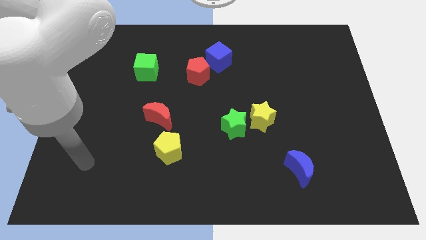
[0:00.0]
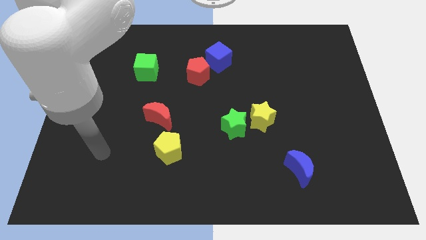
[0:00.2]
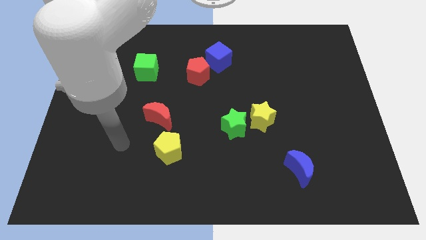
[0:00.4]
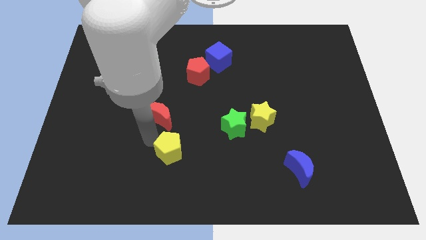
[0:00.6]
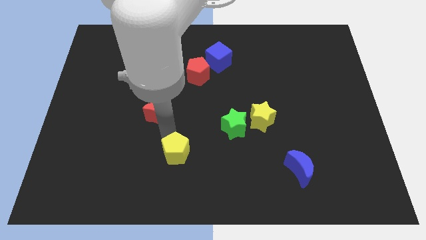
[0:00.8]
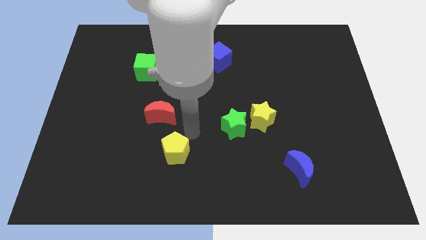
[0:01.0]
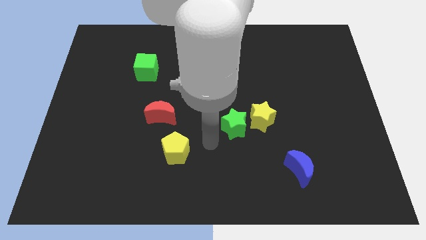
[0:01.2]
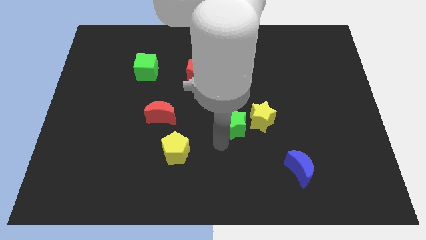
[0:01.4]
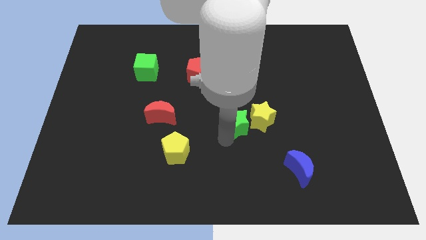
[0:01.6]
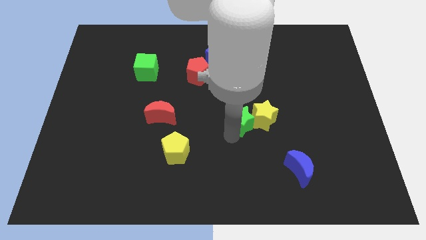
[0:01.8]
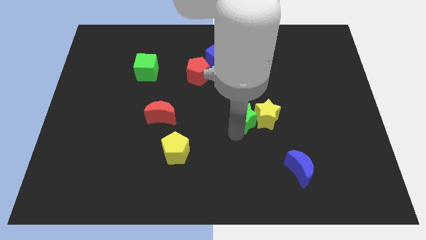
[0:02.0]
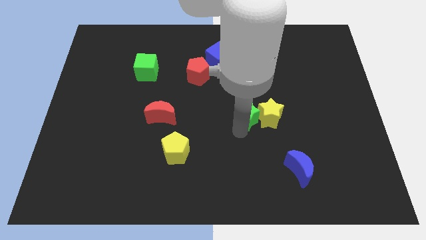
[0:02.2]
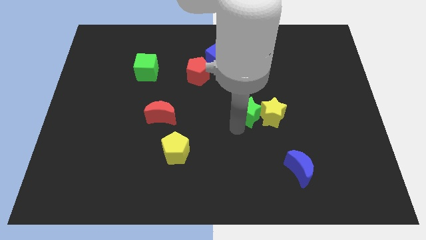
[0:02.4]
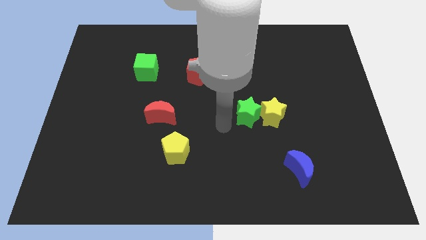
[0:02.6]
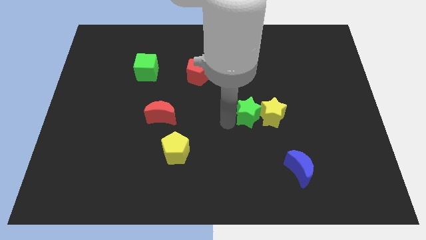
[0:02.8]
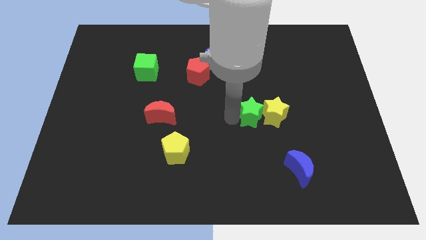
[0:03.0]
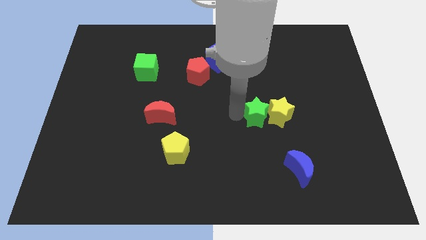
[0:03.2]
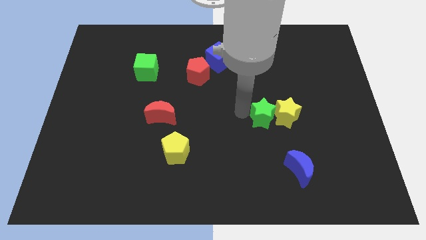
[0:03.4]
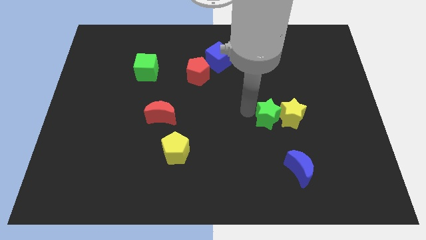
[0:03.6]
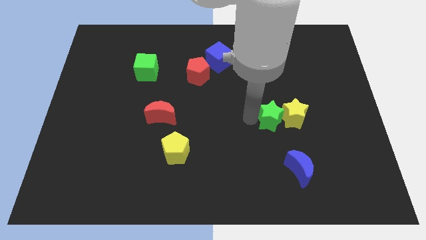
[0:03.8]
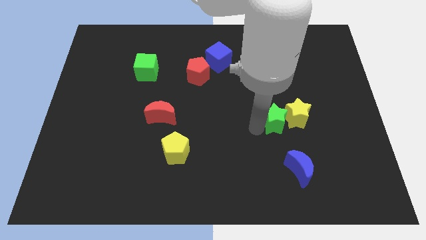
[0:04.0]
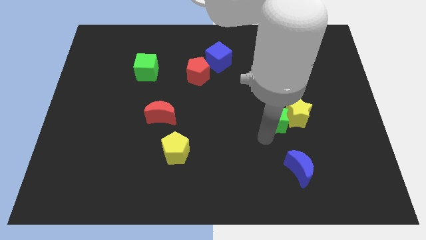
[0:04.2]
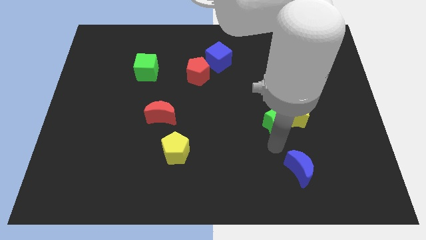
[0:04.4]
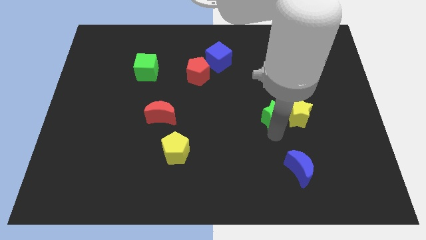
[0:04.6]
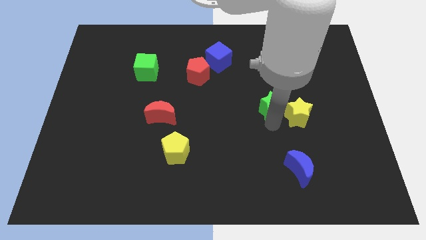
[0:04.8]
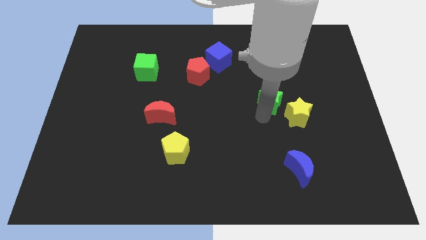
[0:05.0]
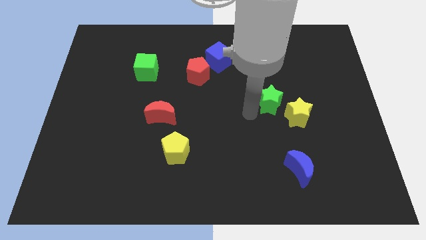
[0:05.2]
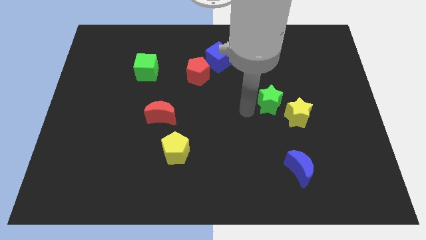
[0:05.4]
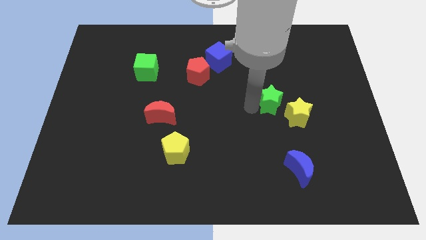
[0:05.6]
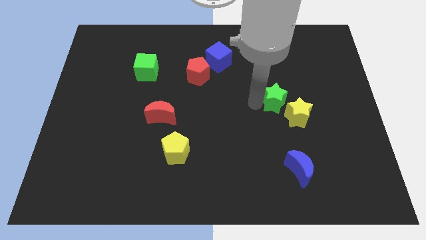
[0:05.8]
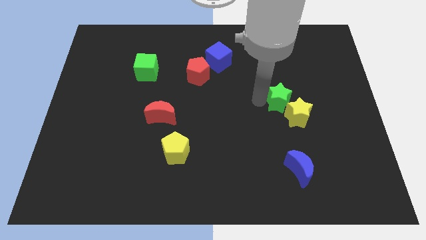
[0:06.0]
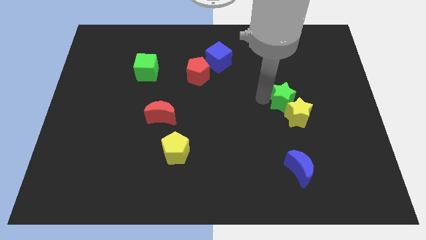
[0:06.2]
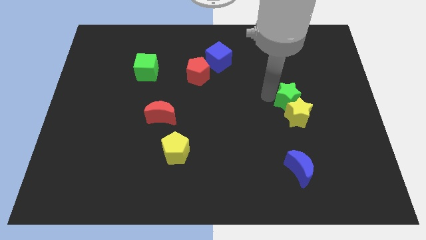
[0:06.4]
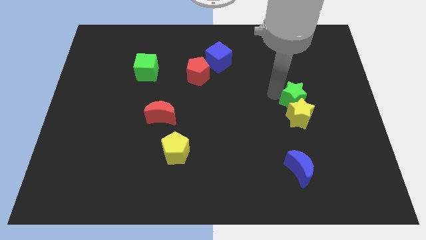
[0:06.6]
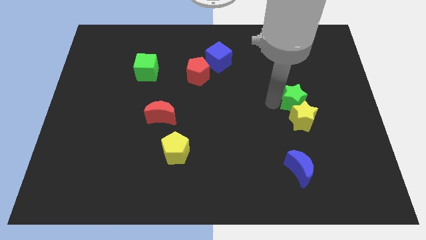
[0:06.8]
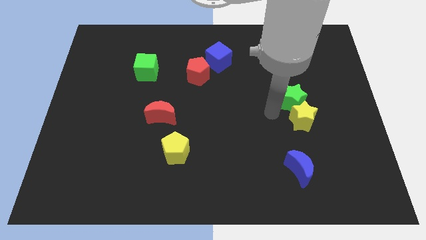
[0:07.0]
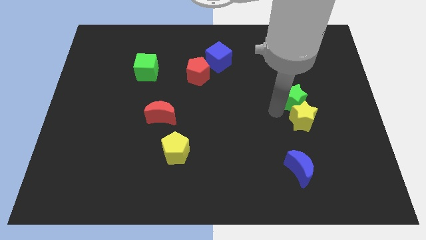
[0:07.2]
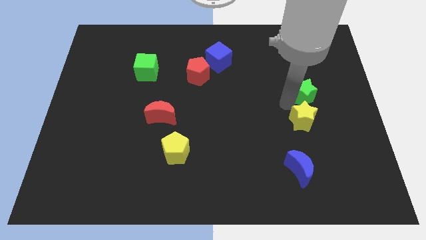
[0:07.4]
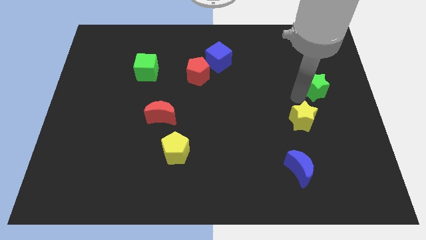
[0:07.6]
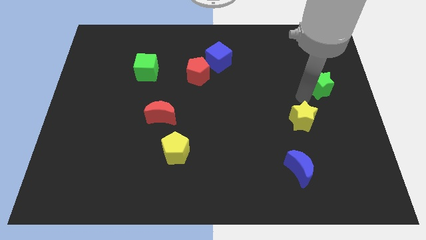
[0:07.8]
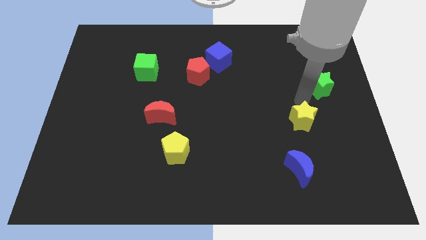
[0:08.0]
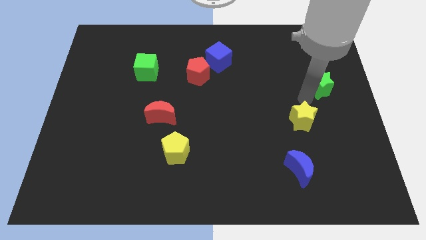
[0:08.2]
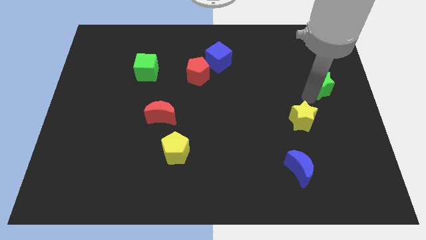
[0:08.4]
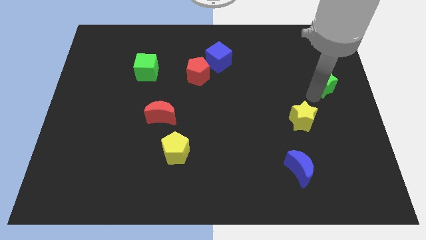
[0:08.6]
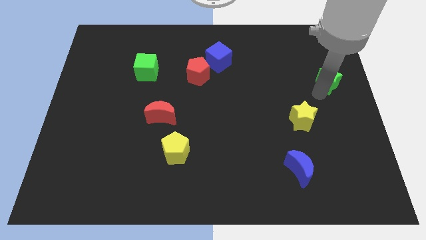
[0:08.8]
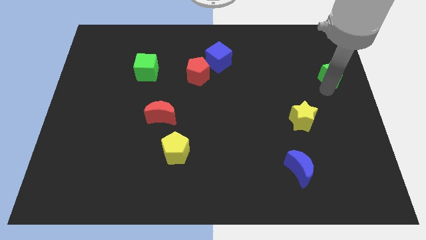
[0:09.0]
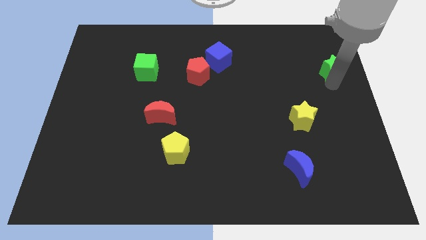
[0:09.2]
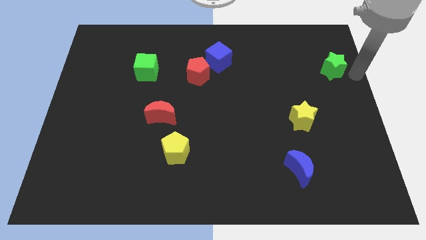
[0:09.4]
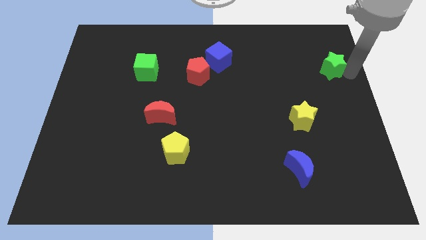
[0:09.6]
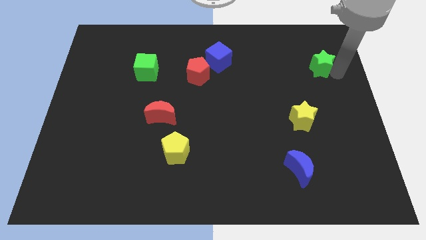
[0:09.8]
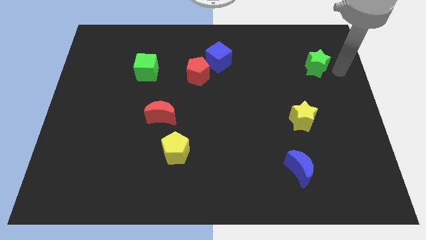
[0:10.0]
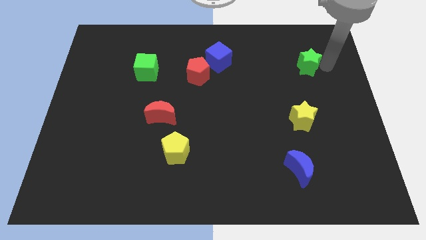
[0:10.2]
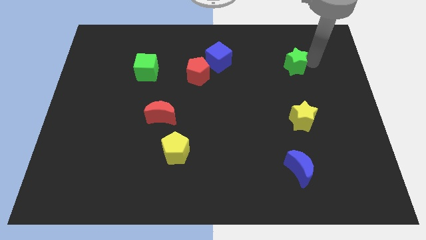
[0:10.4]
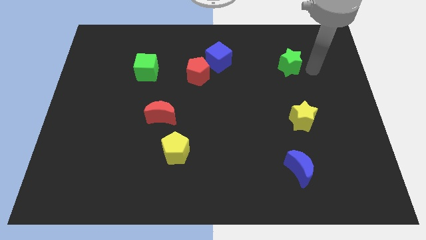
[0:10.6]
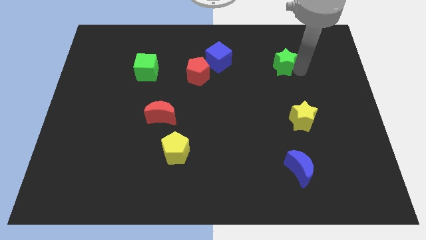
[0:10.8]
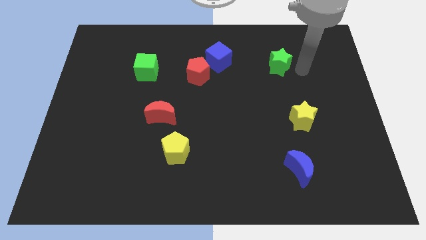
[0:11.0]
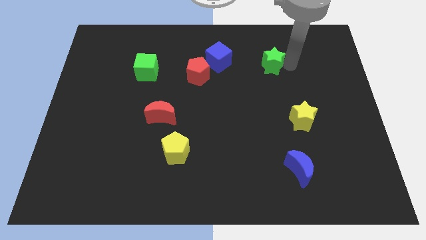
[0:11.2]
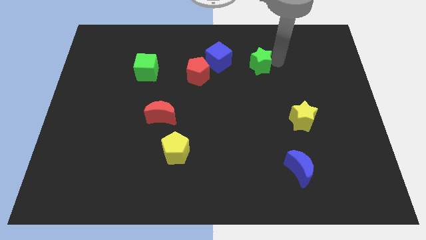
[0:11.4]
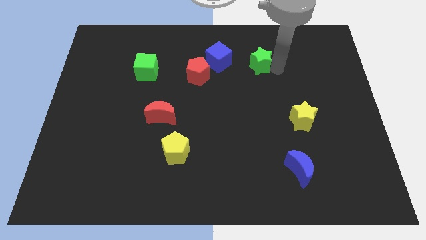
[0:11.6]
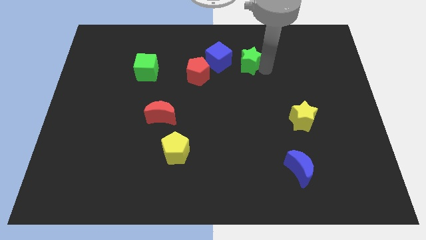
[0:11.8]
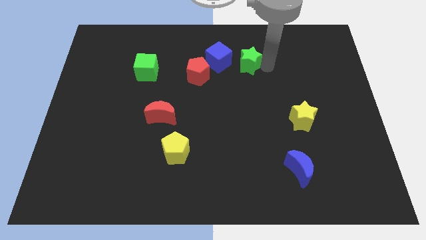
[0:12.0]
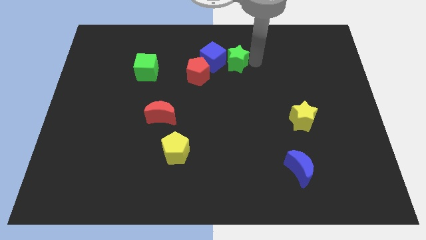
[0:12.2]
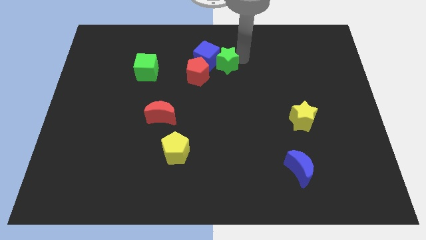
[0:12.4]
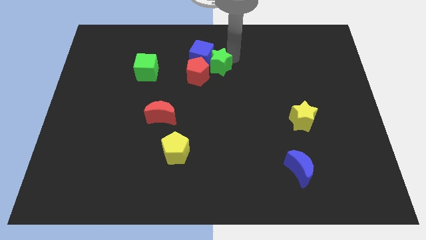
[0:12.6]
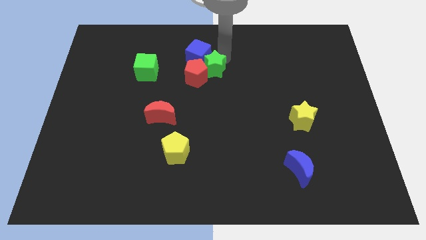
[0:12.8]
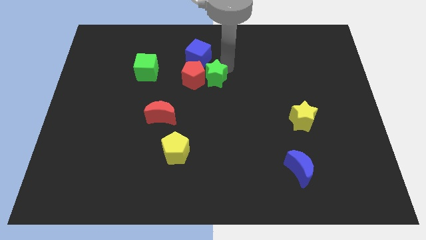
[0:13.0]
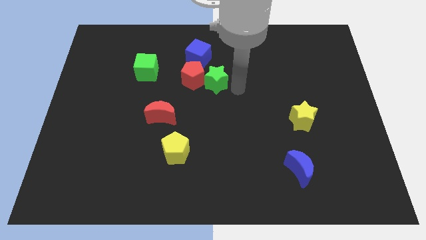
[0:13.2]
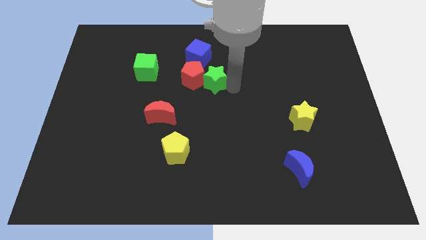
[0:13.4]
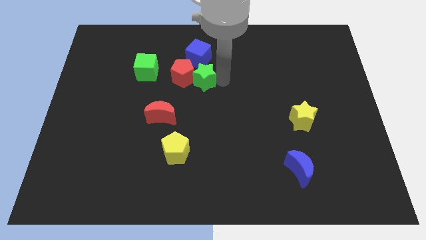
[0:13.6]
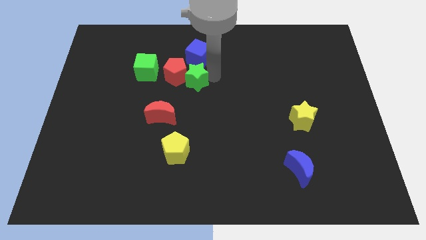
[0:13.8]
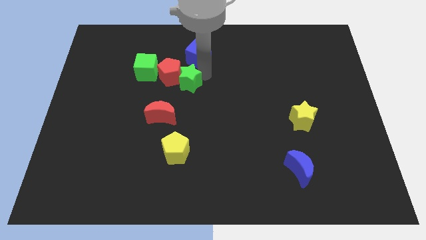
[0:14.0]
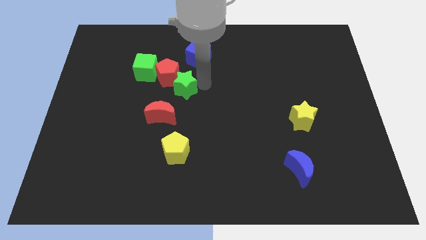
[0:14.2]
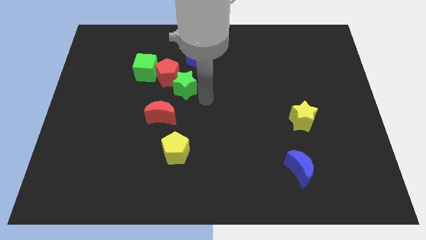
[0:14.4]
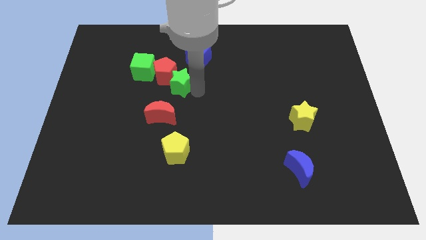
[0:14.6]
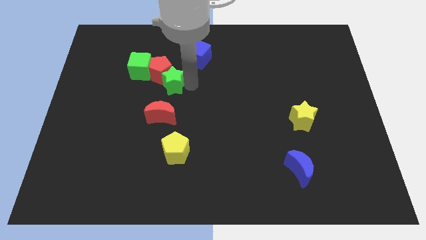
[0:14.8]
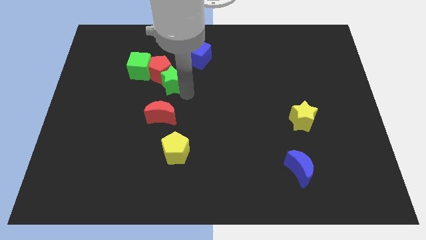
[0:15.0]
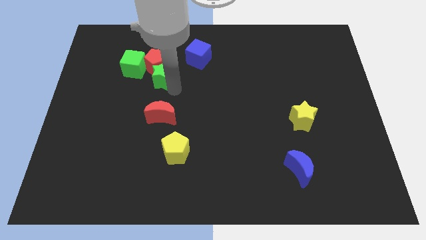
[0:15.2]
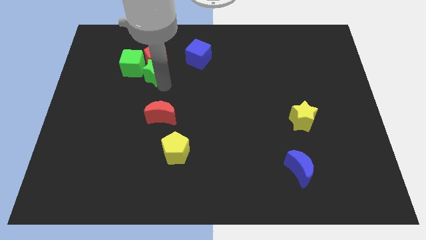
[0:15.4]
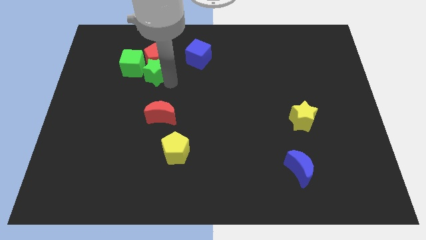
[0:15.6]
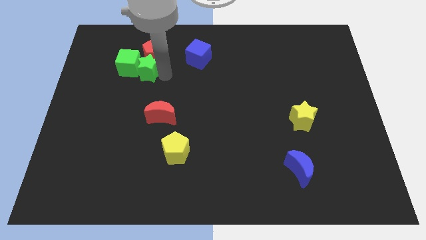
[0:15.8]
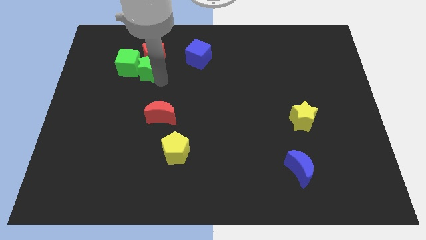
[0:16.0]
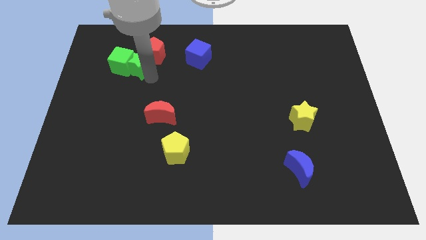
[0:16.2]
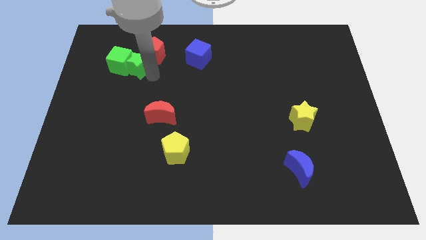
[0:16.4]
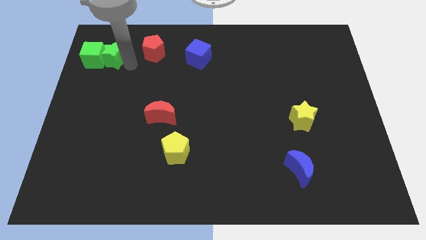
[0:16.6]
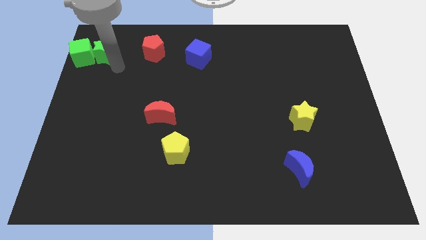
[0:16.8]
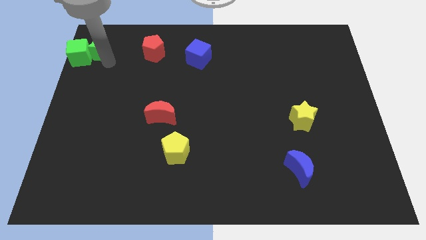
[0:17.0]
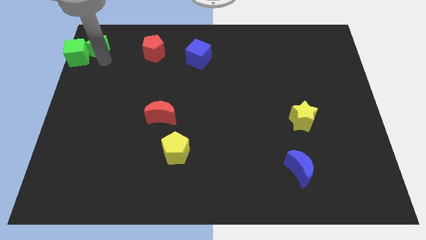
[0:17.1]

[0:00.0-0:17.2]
slide the green star to the top left corner
